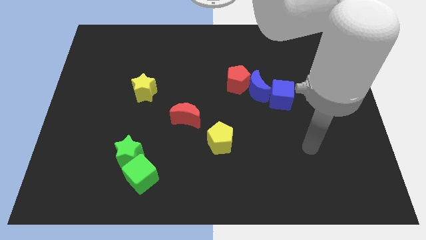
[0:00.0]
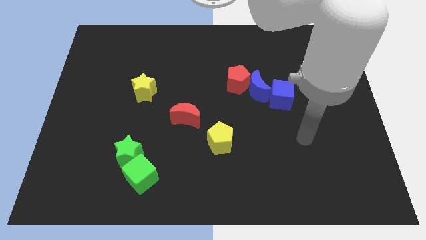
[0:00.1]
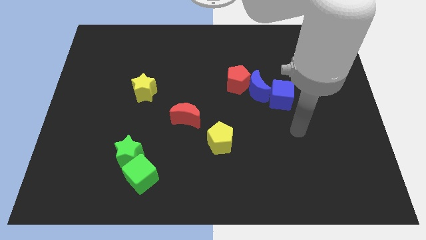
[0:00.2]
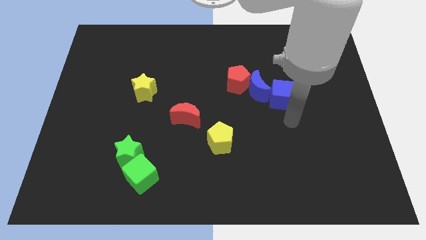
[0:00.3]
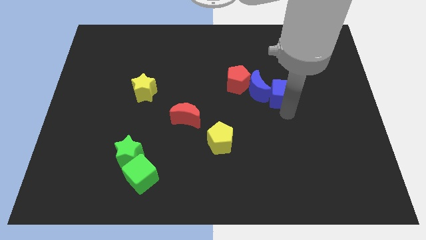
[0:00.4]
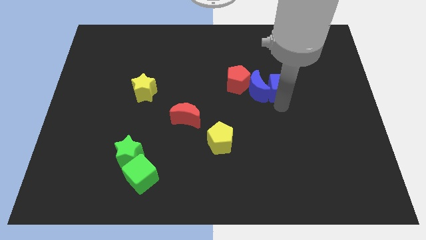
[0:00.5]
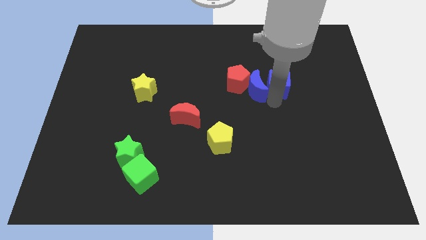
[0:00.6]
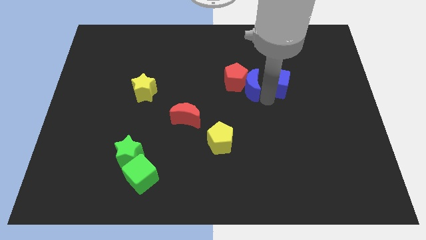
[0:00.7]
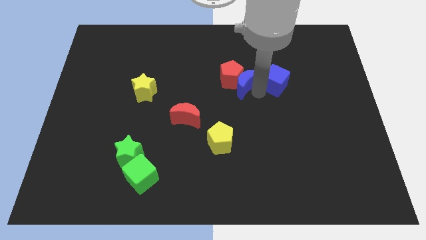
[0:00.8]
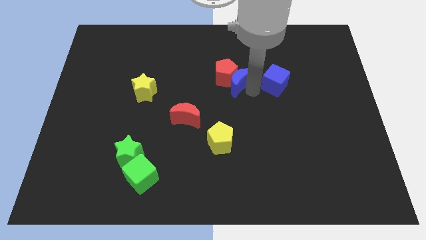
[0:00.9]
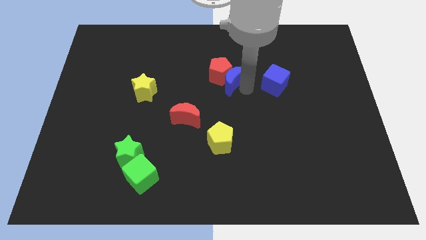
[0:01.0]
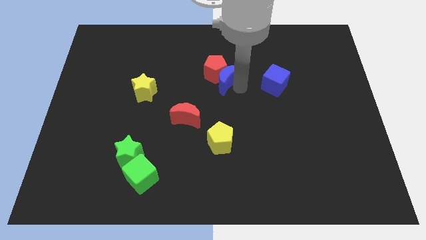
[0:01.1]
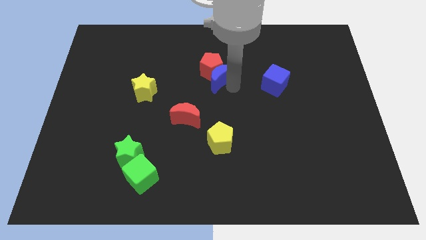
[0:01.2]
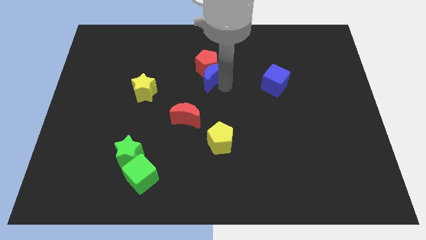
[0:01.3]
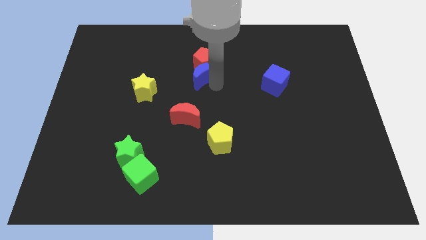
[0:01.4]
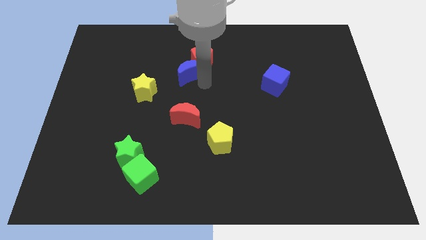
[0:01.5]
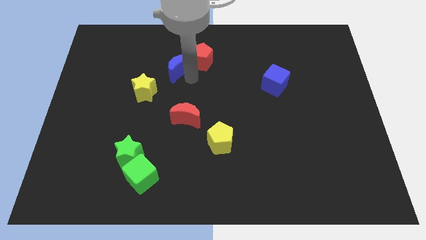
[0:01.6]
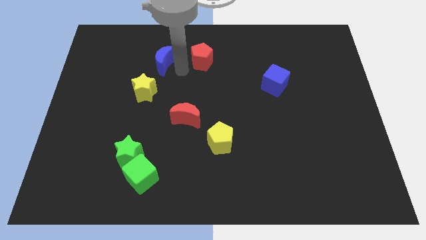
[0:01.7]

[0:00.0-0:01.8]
move the red pentagon away from the blue moon

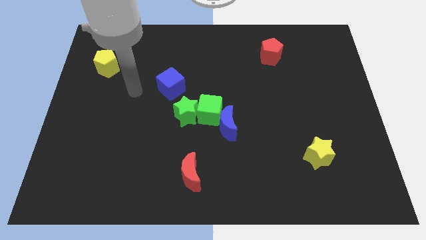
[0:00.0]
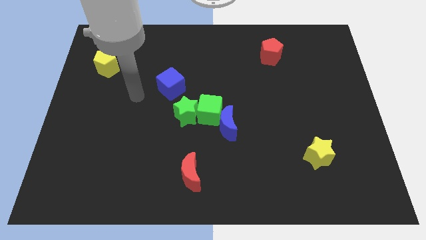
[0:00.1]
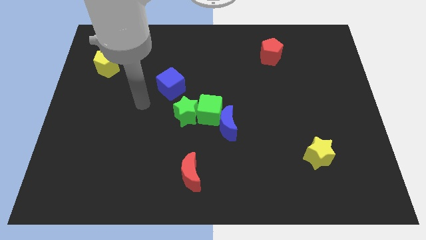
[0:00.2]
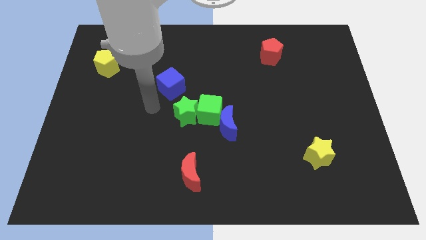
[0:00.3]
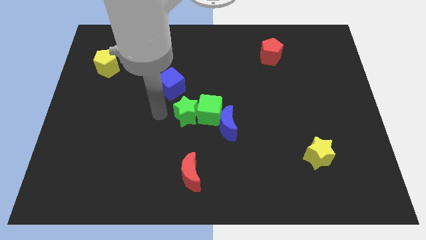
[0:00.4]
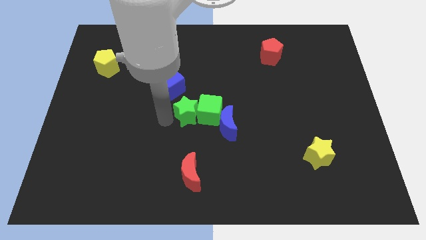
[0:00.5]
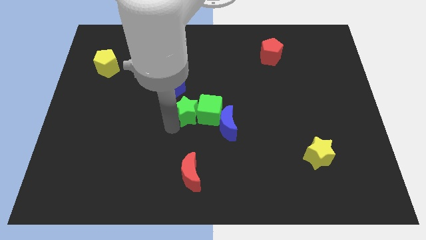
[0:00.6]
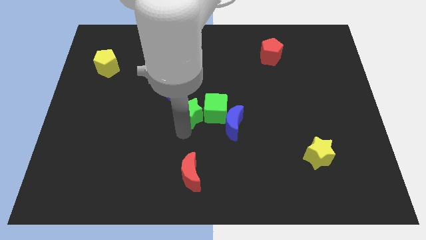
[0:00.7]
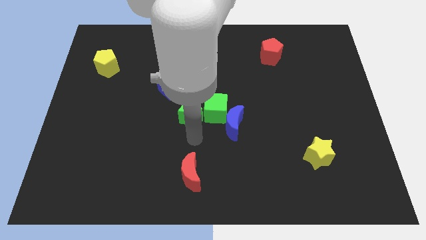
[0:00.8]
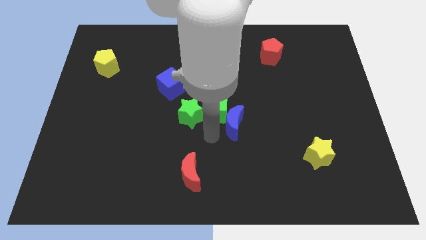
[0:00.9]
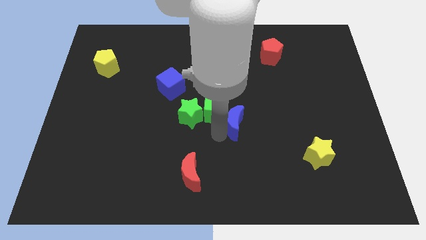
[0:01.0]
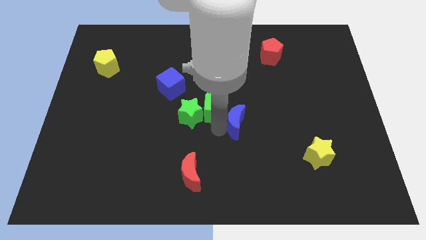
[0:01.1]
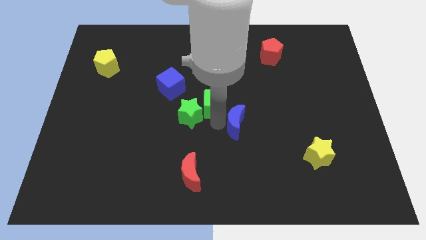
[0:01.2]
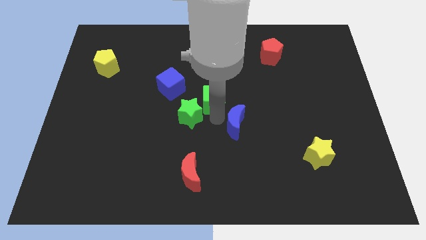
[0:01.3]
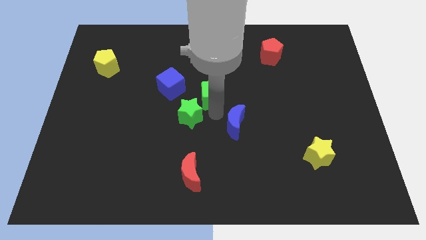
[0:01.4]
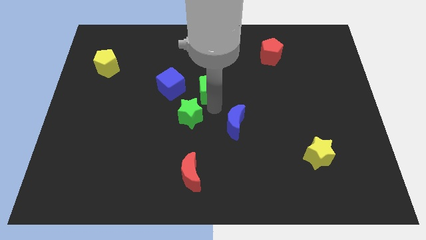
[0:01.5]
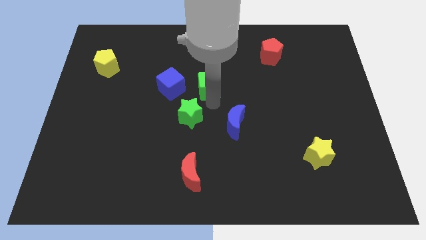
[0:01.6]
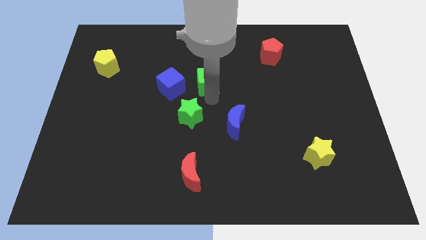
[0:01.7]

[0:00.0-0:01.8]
move the green cube away from the green star and blue moon

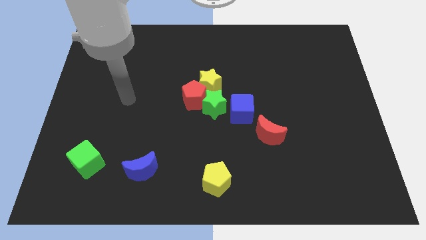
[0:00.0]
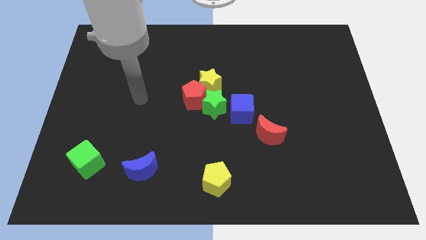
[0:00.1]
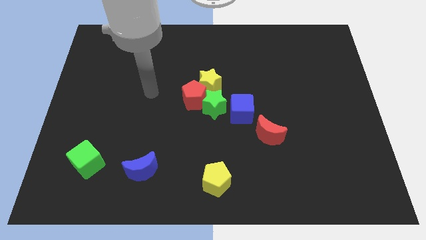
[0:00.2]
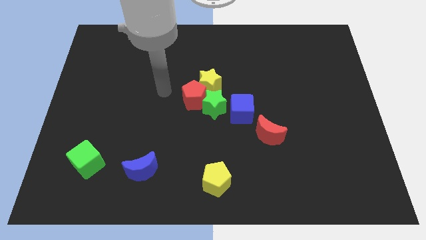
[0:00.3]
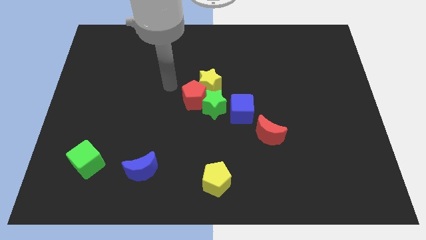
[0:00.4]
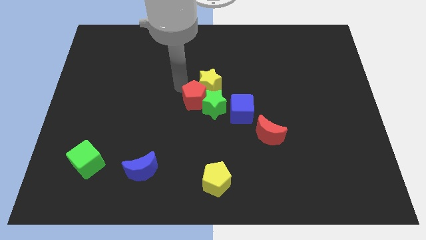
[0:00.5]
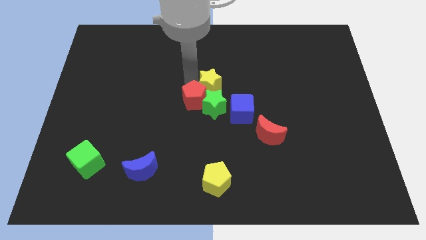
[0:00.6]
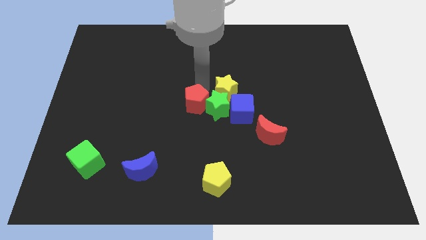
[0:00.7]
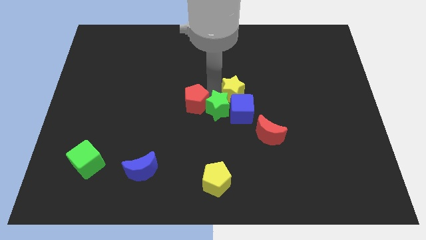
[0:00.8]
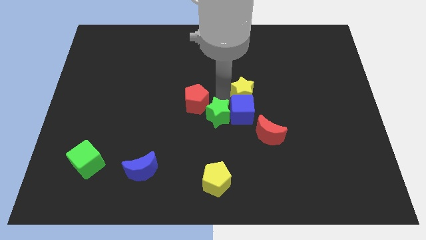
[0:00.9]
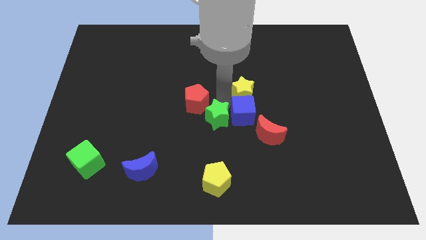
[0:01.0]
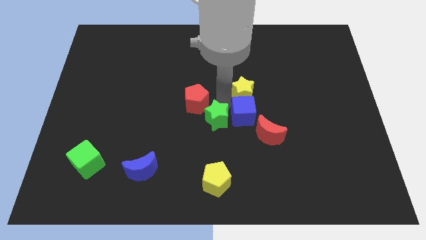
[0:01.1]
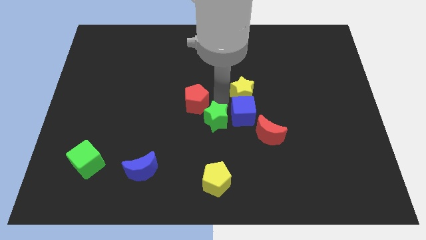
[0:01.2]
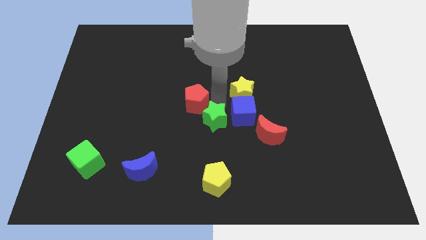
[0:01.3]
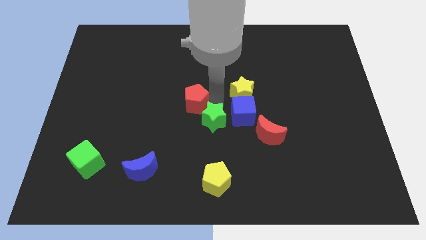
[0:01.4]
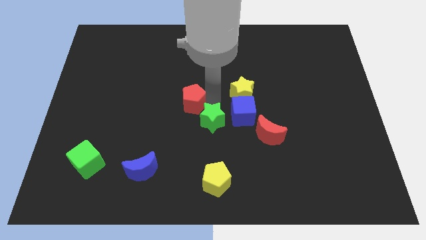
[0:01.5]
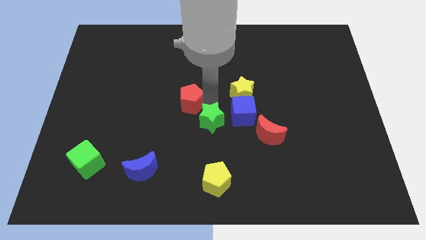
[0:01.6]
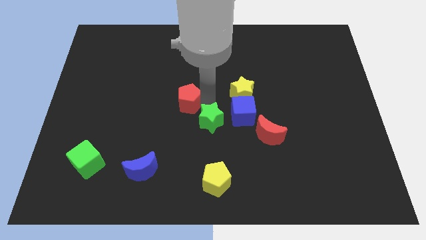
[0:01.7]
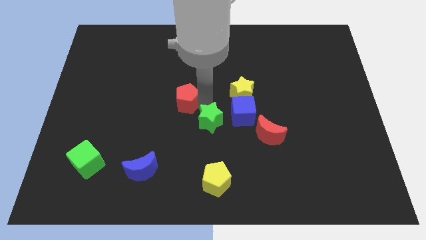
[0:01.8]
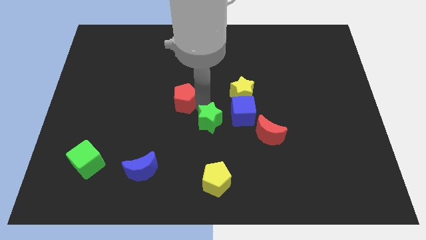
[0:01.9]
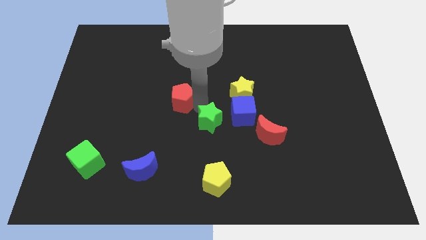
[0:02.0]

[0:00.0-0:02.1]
move the red pentagon away from the yellow star and green star

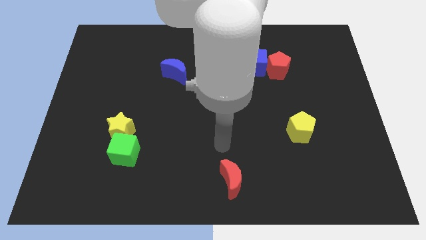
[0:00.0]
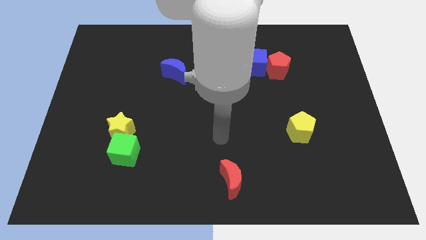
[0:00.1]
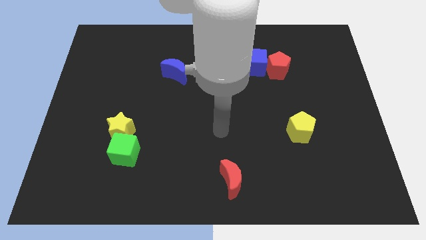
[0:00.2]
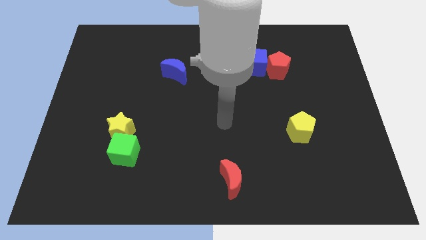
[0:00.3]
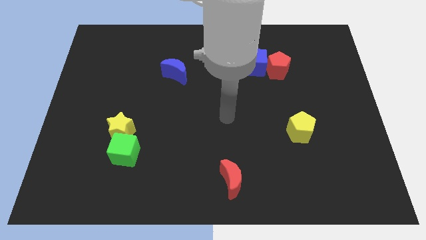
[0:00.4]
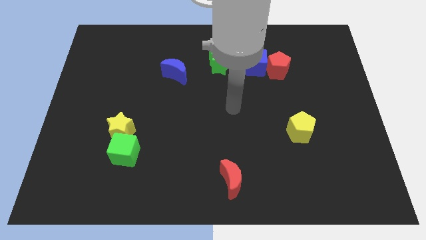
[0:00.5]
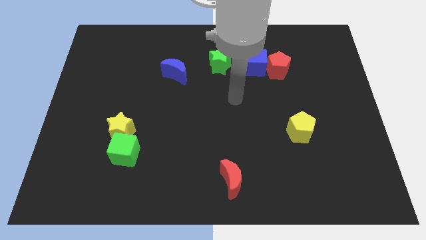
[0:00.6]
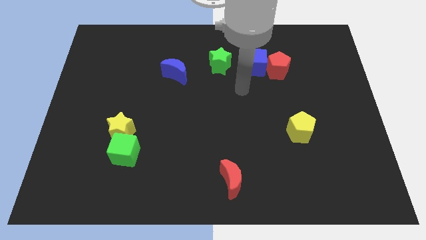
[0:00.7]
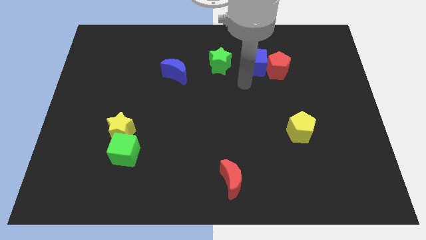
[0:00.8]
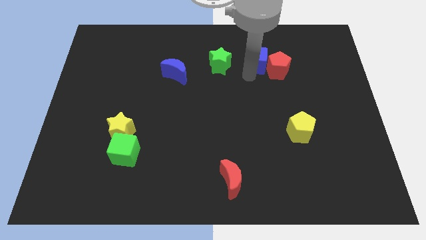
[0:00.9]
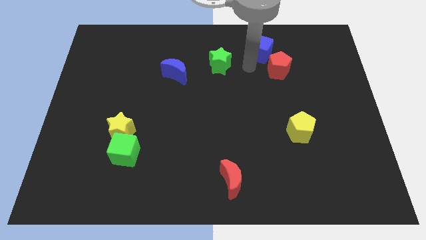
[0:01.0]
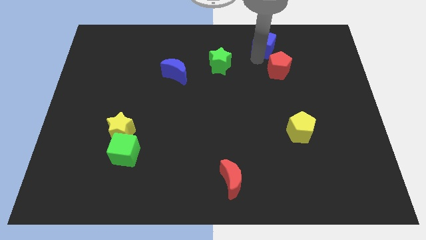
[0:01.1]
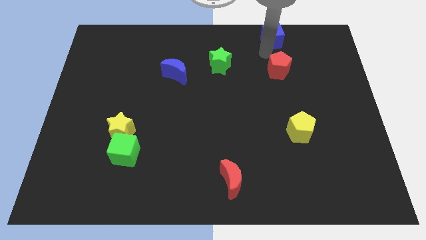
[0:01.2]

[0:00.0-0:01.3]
move the red pentagon away from the blue cube

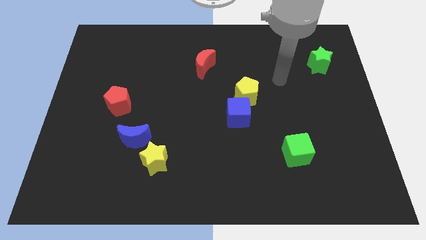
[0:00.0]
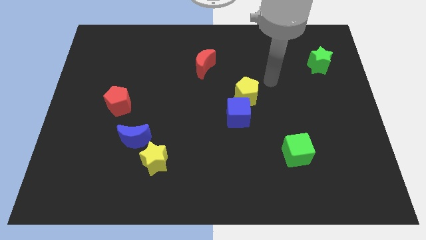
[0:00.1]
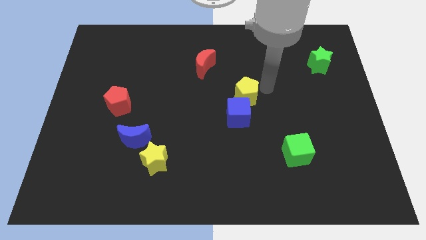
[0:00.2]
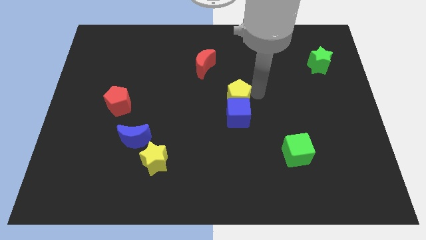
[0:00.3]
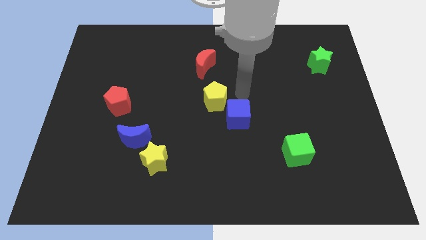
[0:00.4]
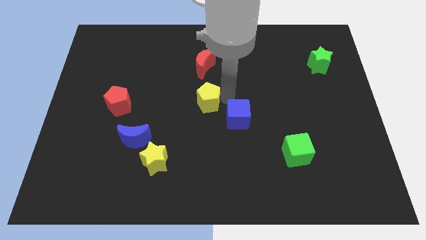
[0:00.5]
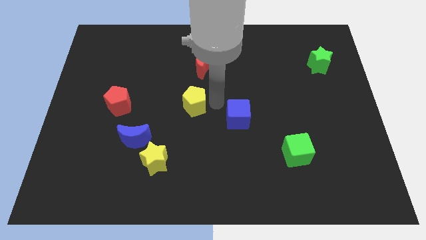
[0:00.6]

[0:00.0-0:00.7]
separate the blue cube from the yellow pentagon

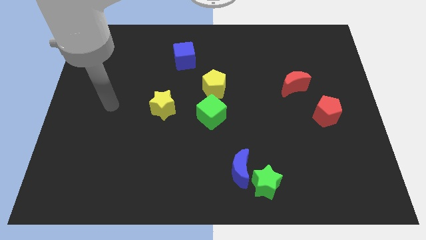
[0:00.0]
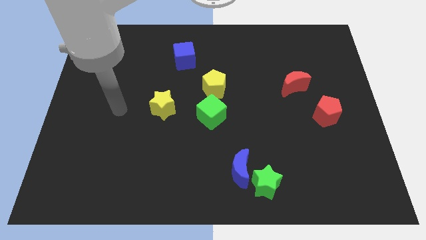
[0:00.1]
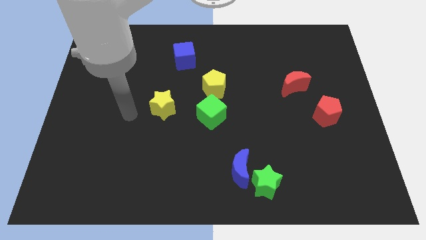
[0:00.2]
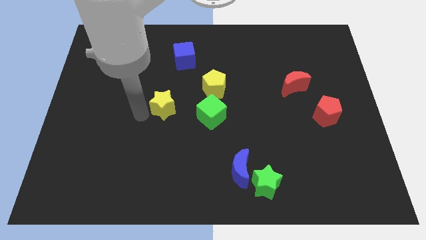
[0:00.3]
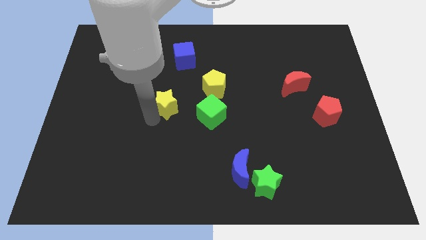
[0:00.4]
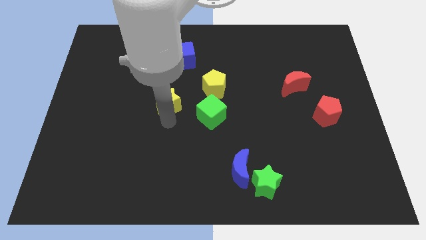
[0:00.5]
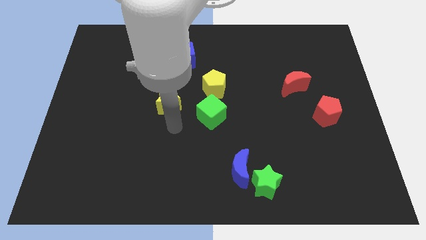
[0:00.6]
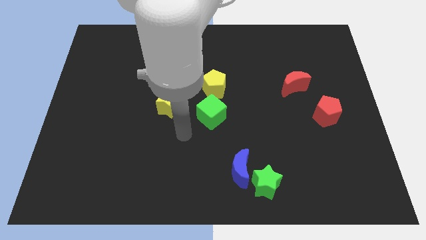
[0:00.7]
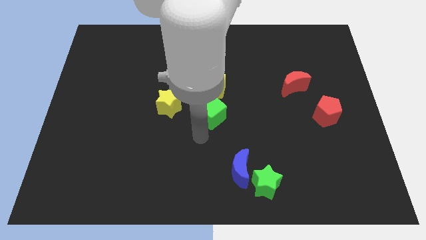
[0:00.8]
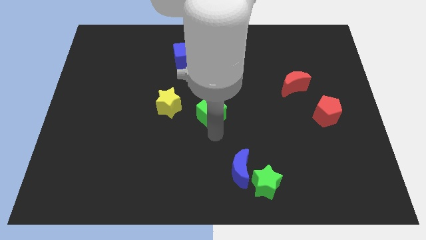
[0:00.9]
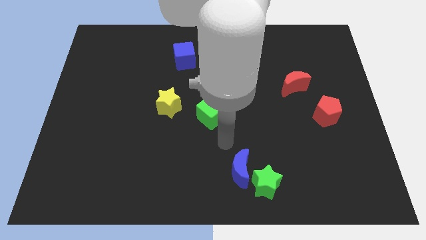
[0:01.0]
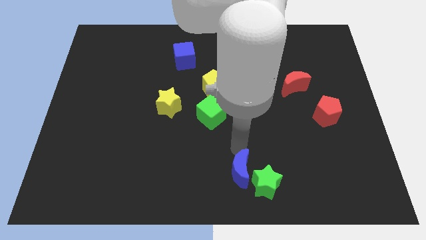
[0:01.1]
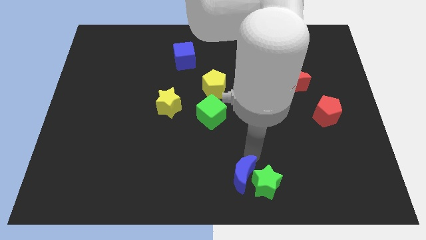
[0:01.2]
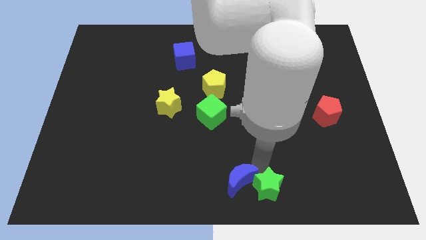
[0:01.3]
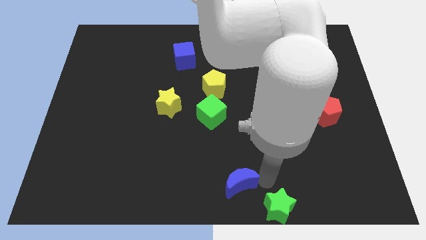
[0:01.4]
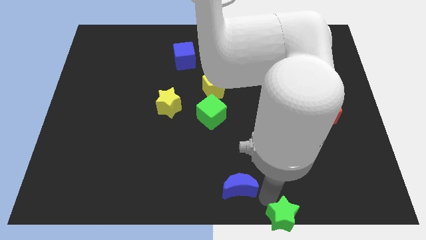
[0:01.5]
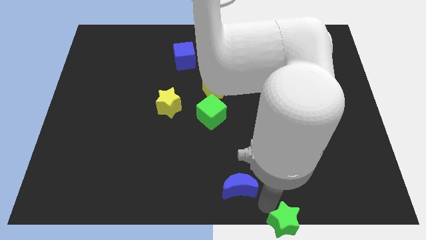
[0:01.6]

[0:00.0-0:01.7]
pull the blue moon apart from the green star
